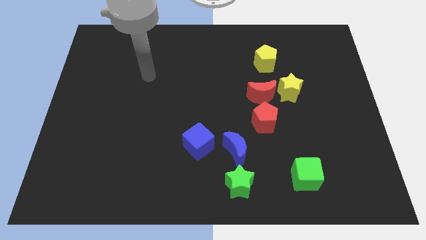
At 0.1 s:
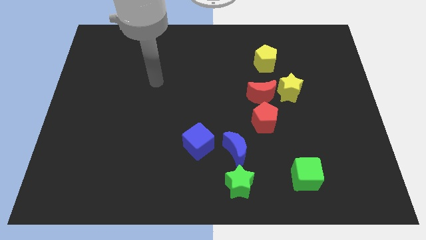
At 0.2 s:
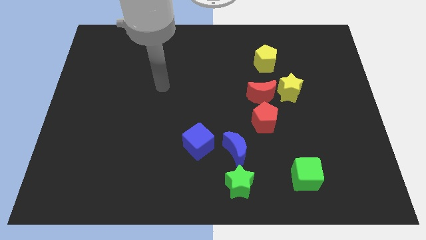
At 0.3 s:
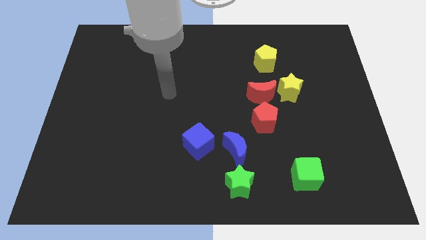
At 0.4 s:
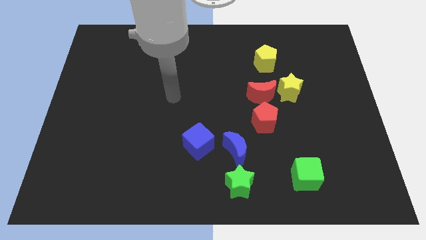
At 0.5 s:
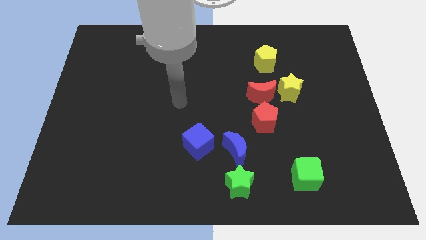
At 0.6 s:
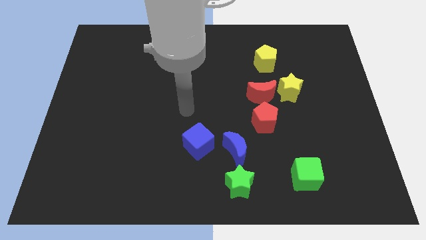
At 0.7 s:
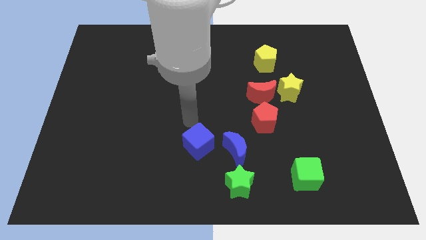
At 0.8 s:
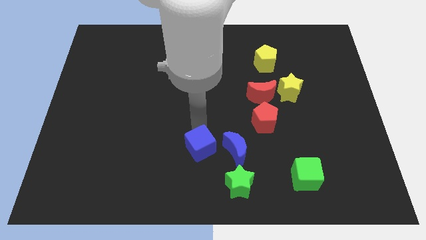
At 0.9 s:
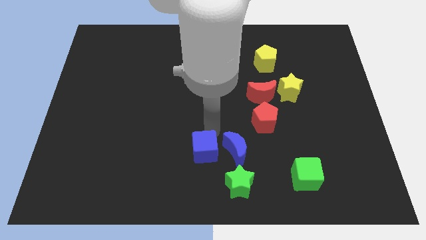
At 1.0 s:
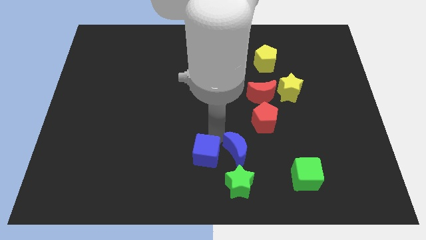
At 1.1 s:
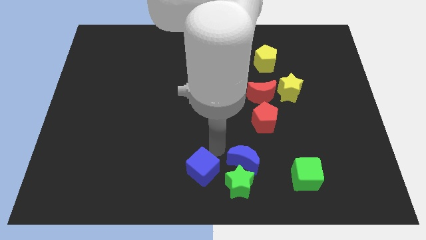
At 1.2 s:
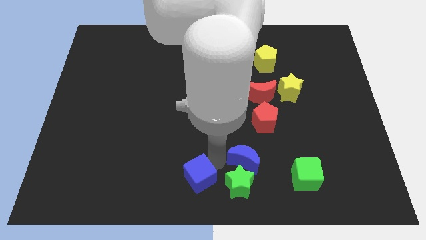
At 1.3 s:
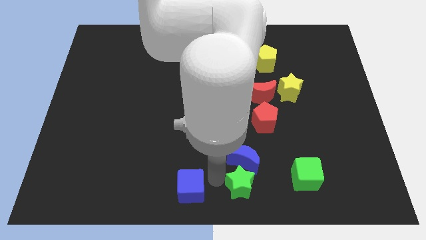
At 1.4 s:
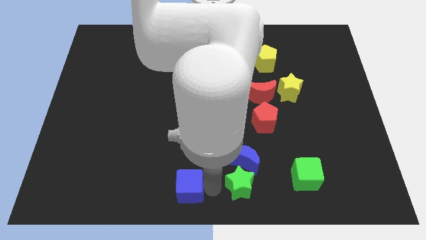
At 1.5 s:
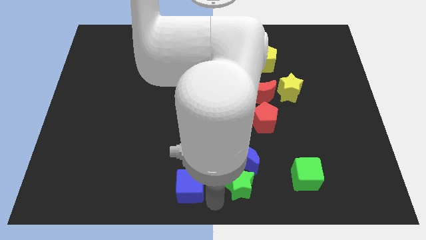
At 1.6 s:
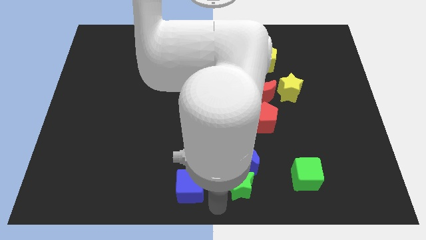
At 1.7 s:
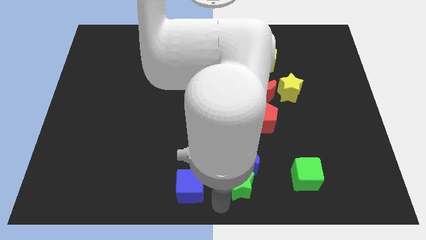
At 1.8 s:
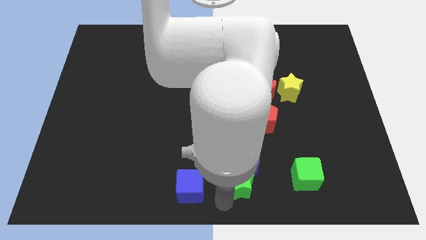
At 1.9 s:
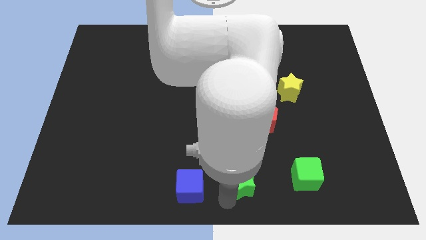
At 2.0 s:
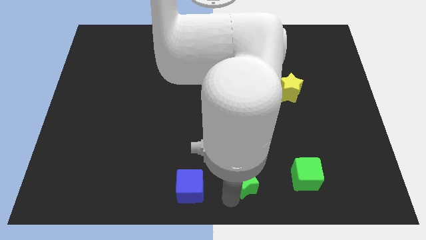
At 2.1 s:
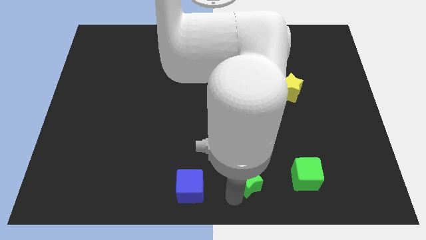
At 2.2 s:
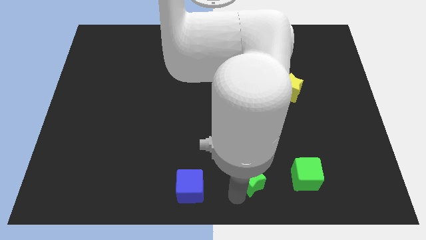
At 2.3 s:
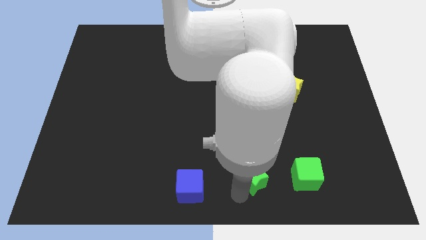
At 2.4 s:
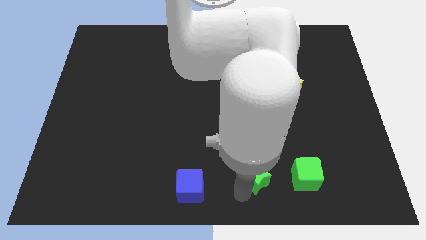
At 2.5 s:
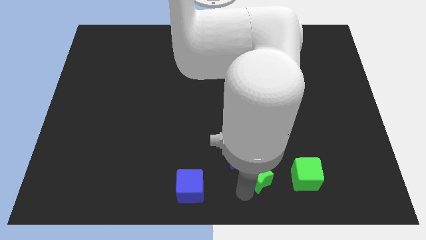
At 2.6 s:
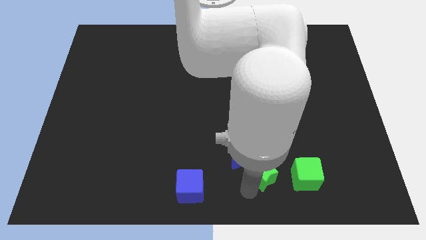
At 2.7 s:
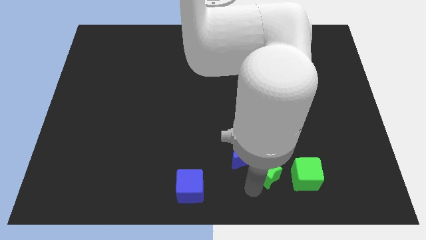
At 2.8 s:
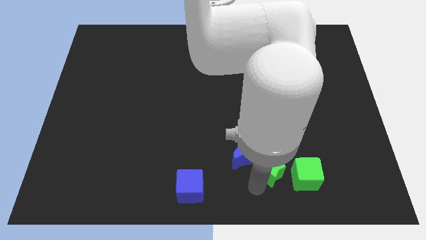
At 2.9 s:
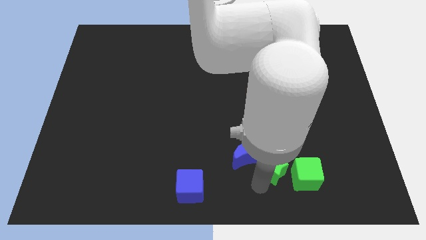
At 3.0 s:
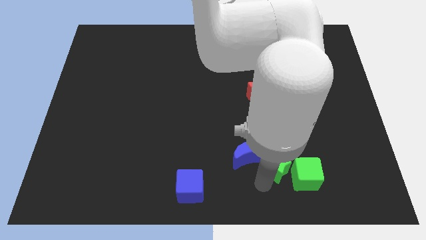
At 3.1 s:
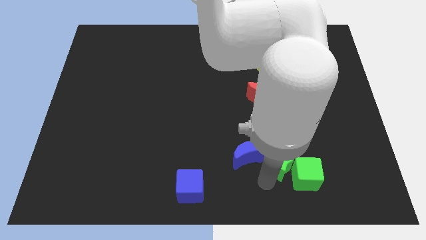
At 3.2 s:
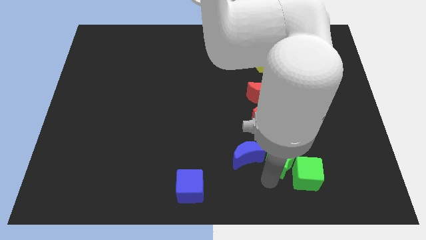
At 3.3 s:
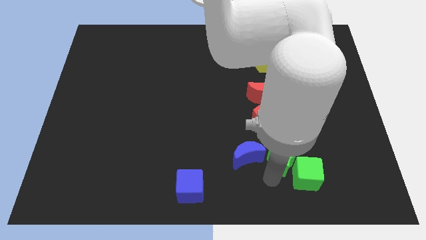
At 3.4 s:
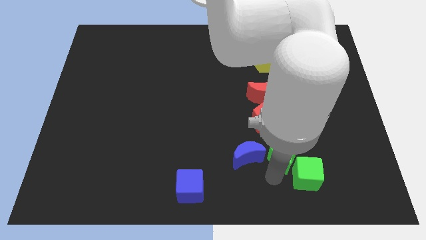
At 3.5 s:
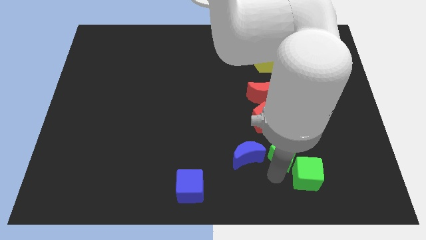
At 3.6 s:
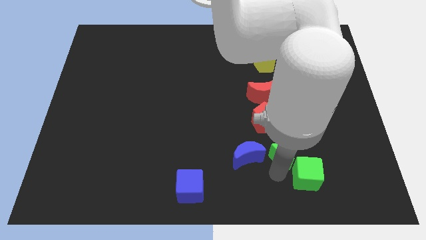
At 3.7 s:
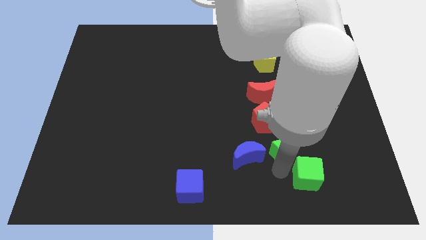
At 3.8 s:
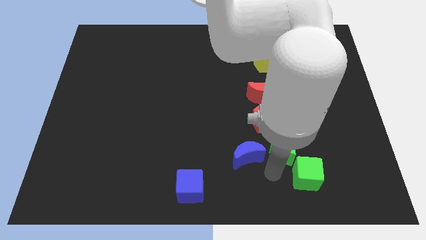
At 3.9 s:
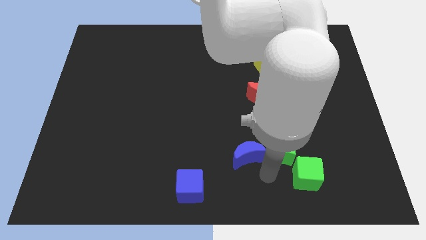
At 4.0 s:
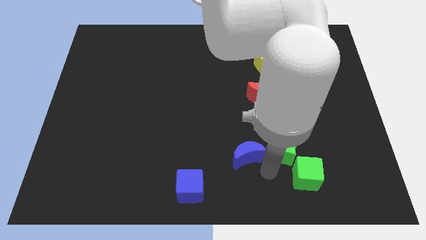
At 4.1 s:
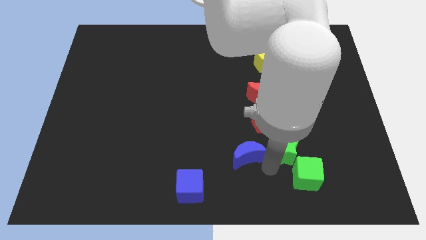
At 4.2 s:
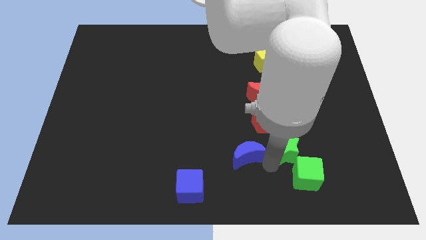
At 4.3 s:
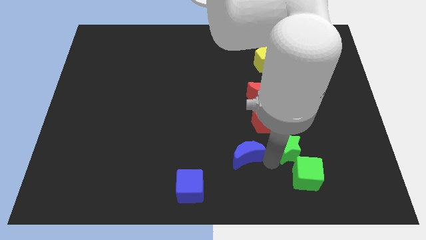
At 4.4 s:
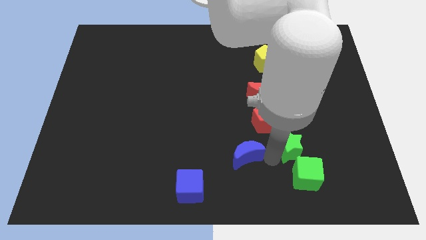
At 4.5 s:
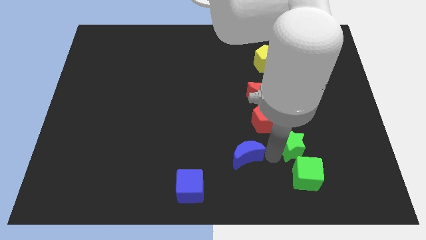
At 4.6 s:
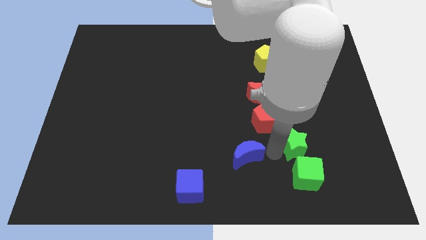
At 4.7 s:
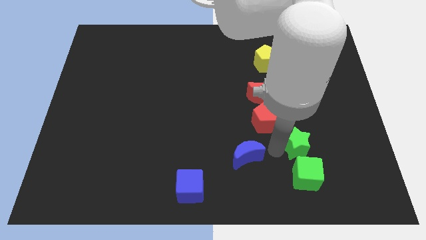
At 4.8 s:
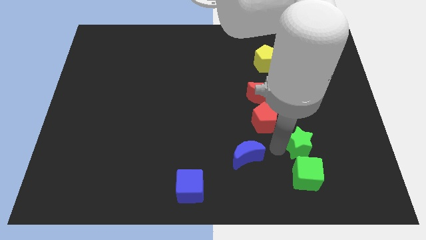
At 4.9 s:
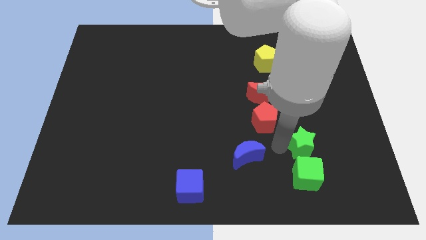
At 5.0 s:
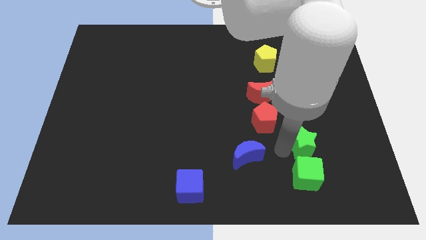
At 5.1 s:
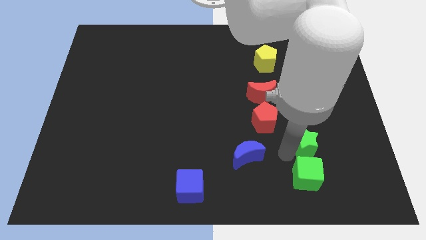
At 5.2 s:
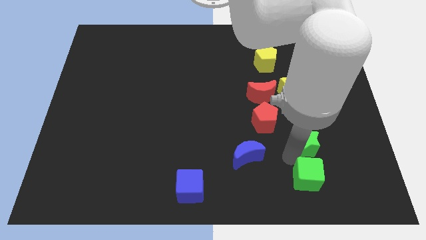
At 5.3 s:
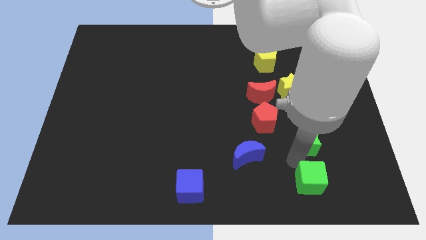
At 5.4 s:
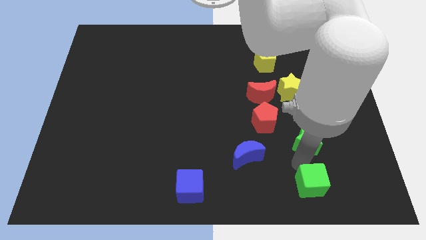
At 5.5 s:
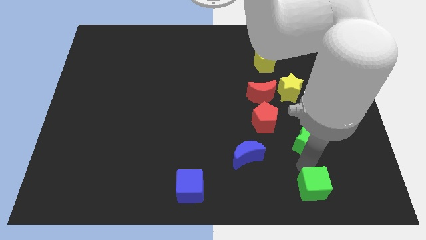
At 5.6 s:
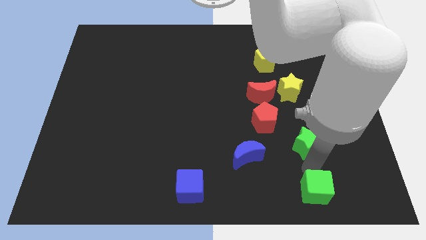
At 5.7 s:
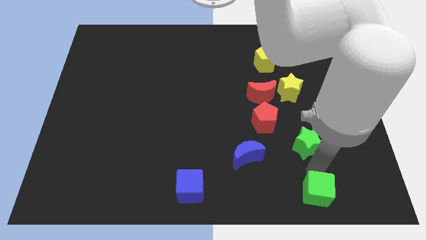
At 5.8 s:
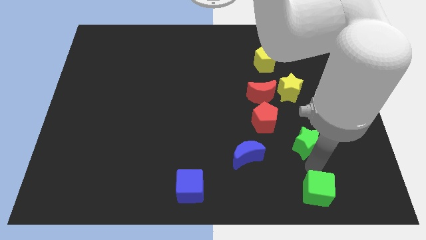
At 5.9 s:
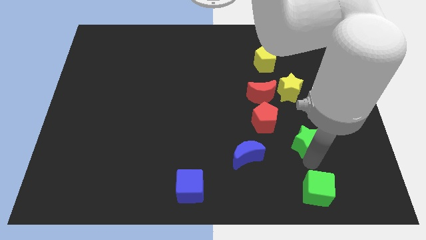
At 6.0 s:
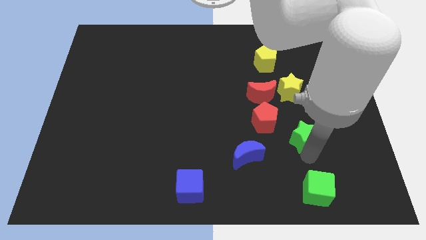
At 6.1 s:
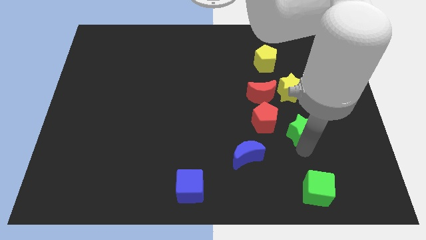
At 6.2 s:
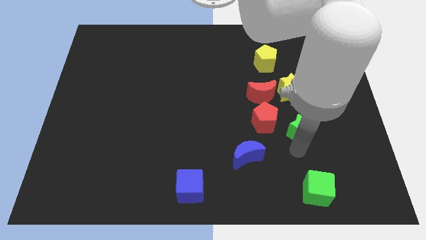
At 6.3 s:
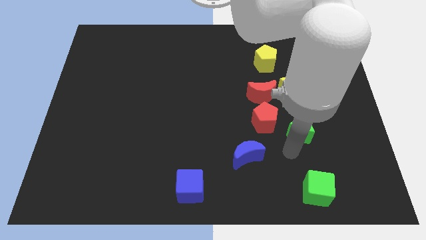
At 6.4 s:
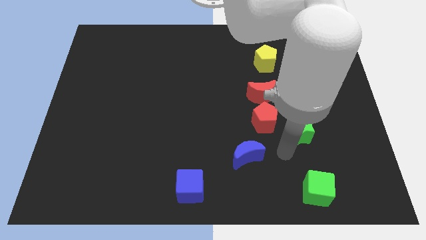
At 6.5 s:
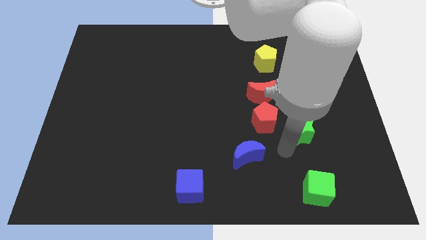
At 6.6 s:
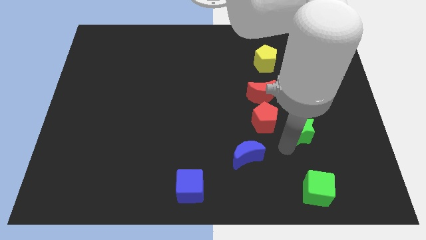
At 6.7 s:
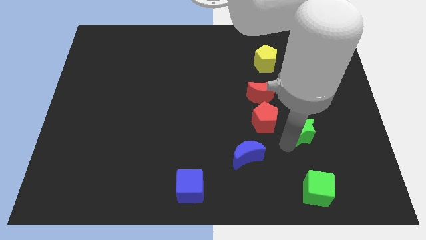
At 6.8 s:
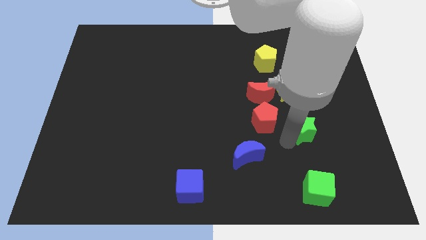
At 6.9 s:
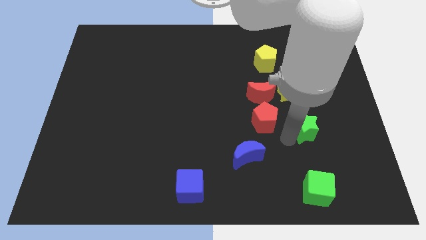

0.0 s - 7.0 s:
push the green star upwards and to the right

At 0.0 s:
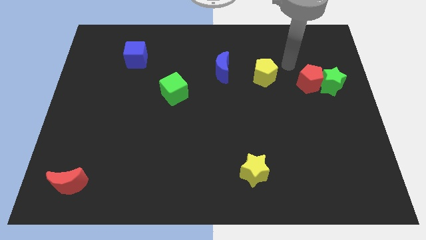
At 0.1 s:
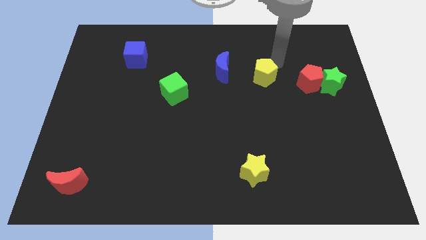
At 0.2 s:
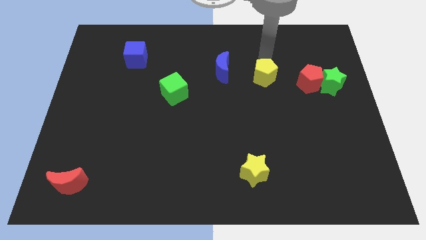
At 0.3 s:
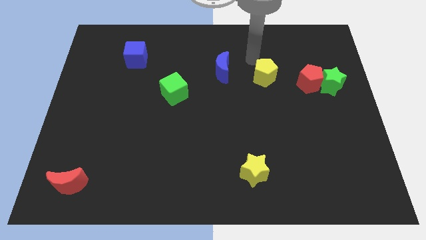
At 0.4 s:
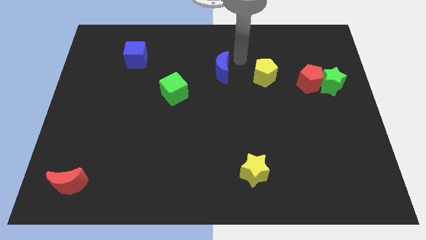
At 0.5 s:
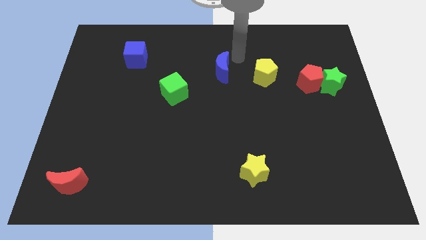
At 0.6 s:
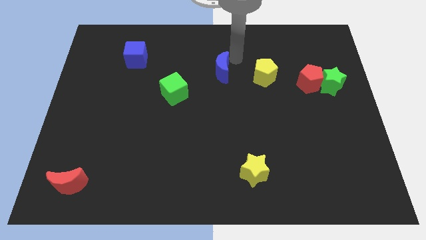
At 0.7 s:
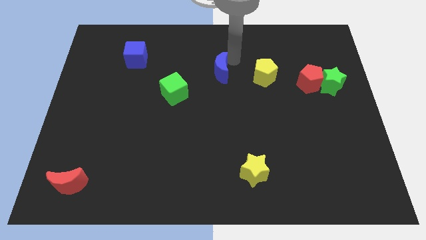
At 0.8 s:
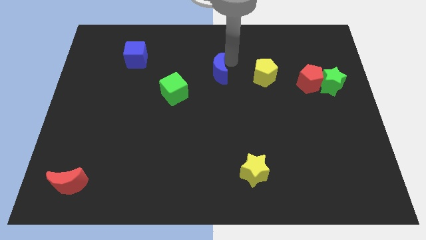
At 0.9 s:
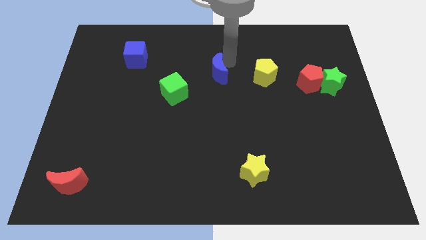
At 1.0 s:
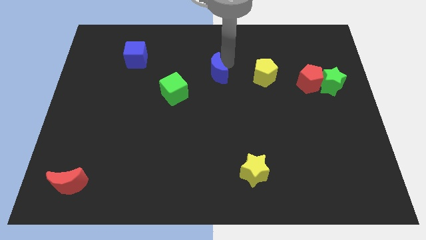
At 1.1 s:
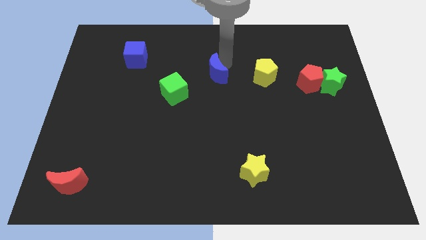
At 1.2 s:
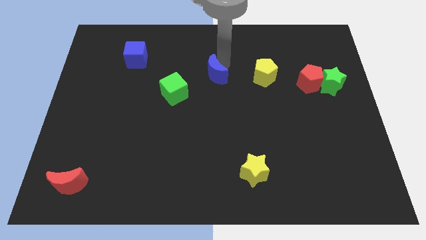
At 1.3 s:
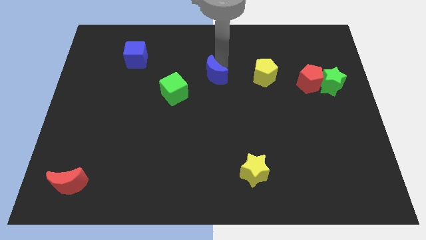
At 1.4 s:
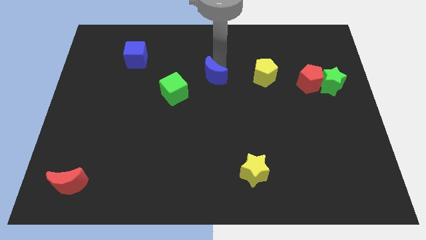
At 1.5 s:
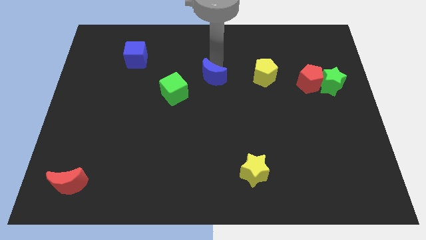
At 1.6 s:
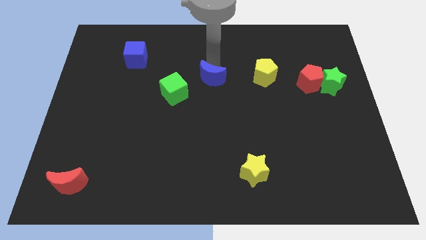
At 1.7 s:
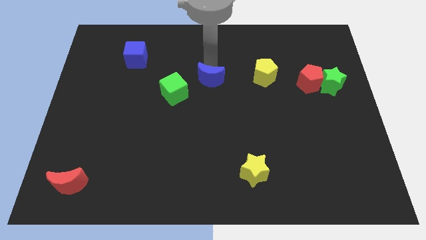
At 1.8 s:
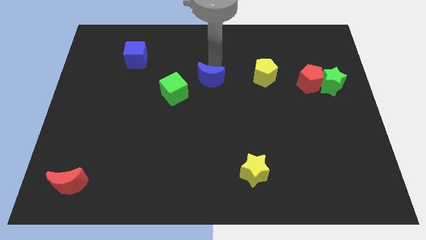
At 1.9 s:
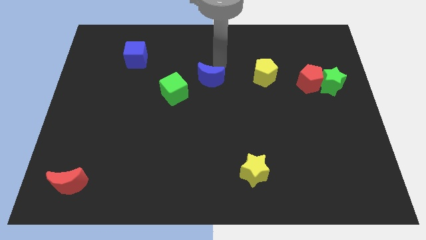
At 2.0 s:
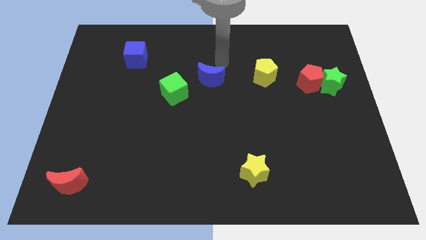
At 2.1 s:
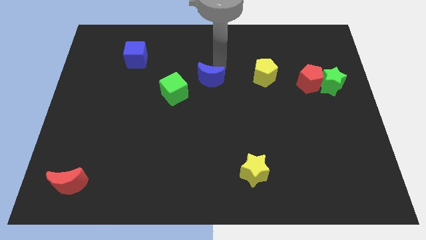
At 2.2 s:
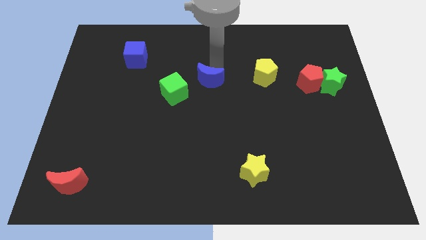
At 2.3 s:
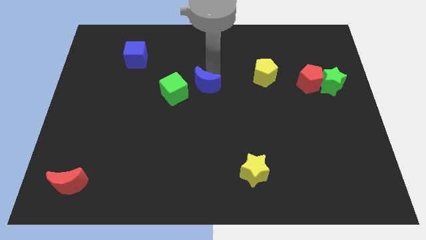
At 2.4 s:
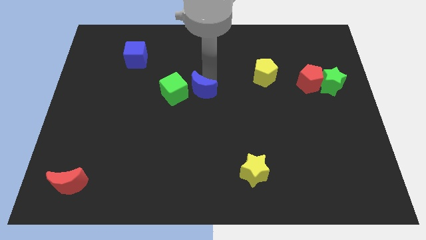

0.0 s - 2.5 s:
slide the blue moon slightly down and left
